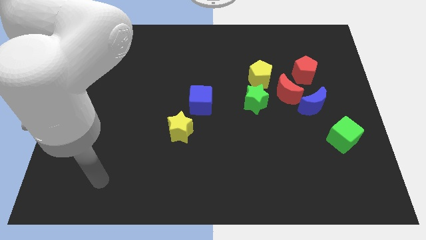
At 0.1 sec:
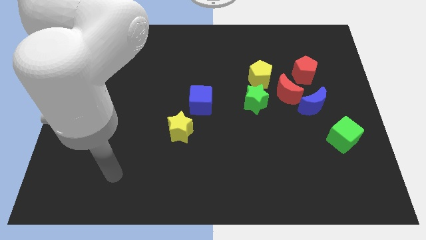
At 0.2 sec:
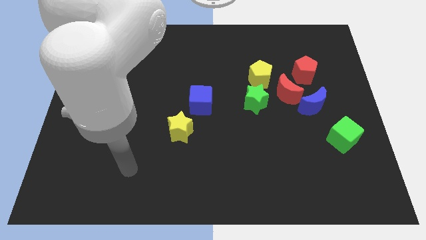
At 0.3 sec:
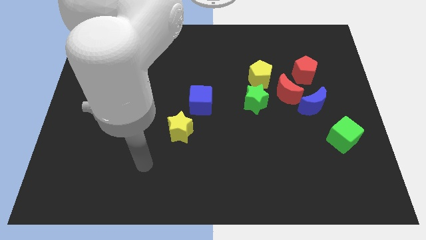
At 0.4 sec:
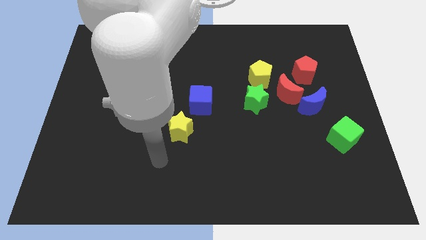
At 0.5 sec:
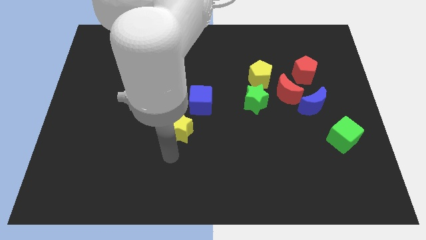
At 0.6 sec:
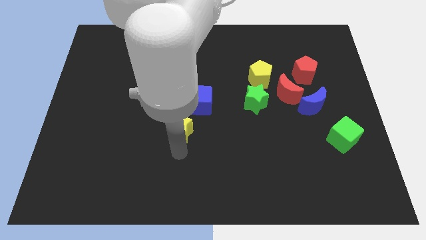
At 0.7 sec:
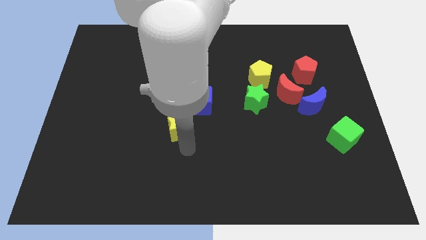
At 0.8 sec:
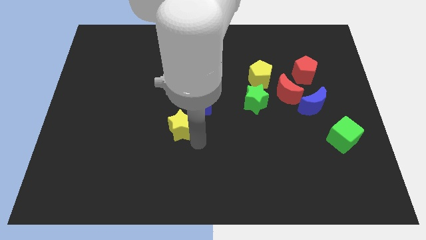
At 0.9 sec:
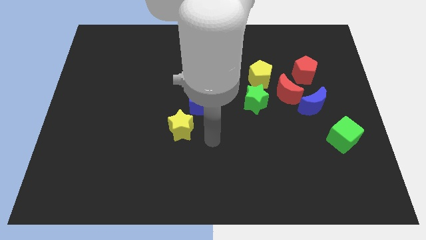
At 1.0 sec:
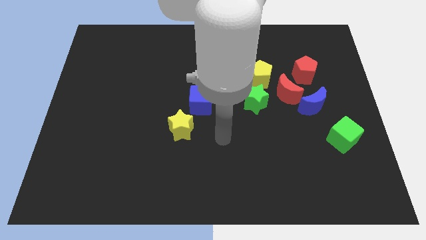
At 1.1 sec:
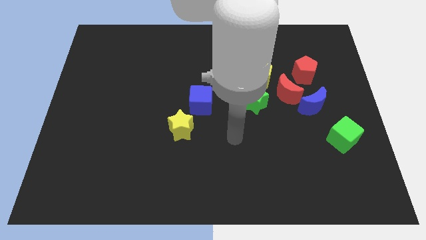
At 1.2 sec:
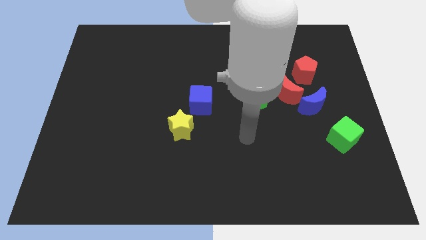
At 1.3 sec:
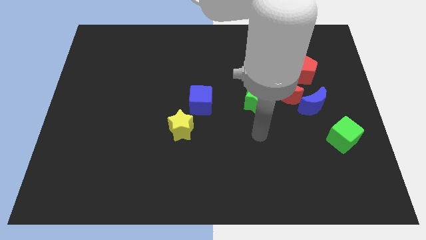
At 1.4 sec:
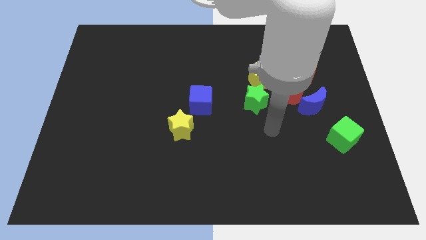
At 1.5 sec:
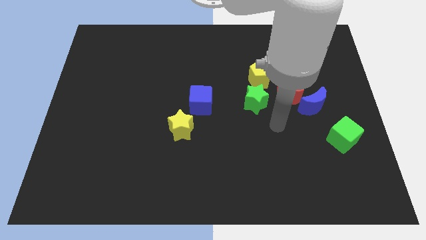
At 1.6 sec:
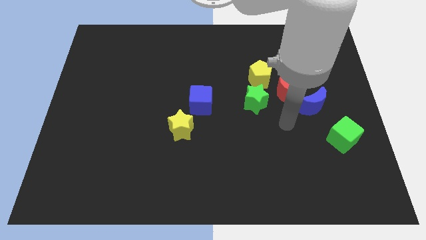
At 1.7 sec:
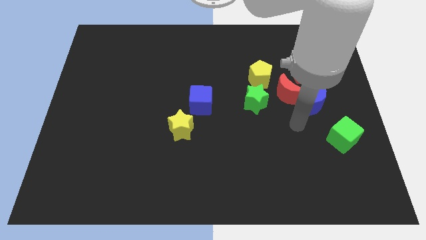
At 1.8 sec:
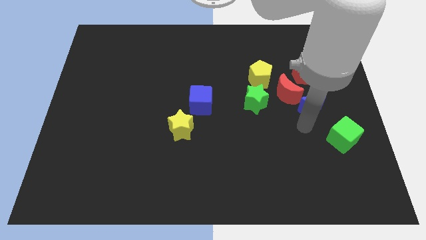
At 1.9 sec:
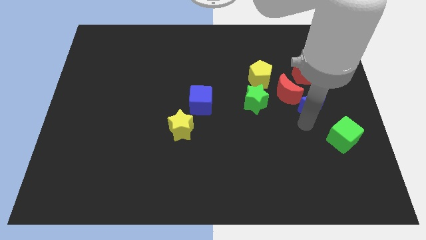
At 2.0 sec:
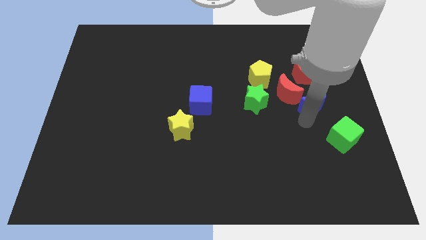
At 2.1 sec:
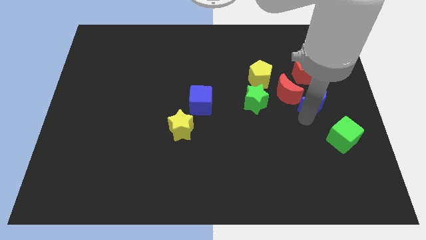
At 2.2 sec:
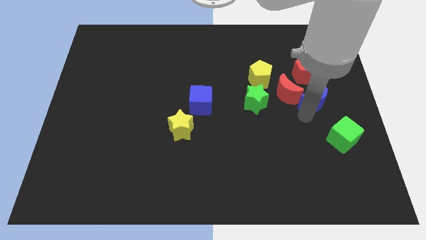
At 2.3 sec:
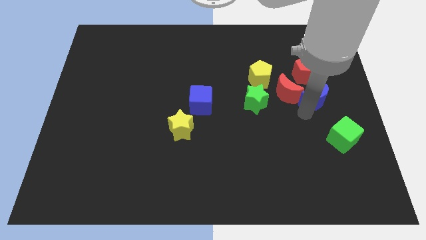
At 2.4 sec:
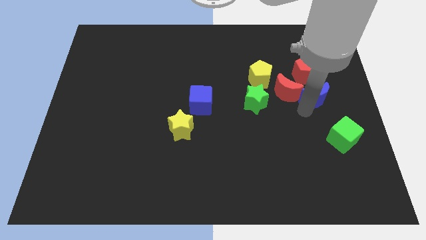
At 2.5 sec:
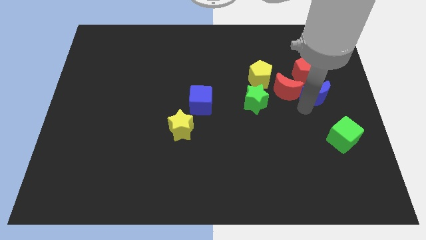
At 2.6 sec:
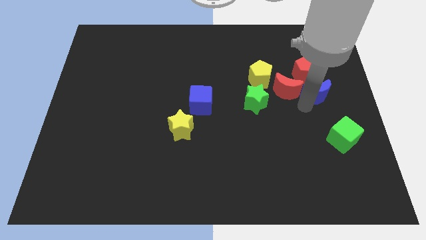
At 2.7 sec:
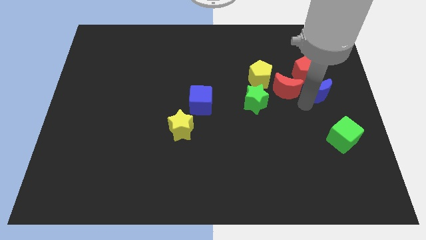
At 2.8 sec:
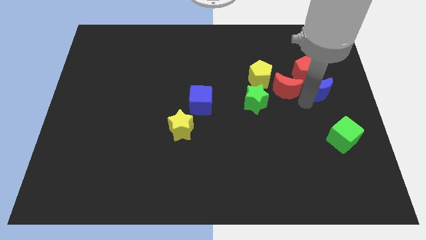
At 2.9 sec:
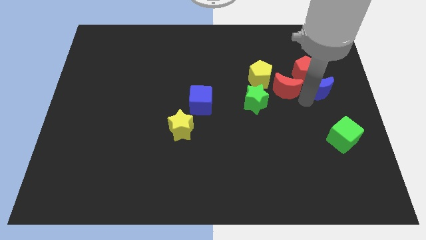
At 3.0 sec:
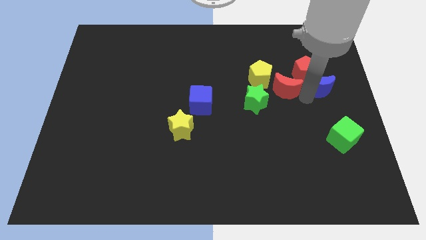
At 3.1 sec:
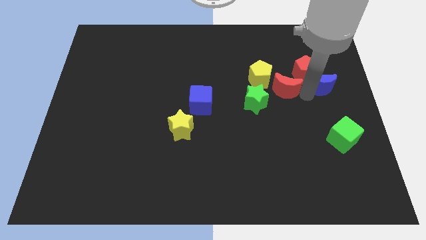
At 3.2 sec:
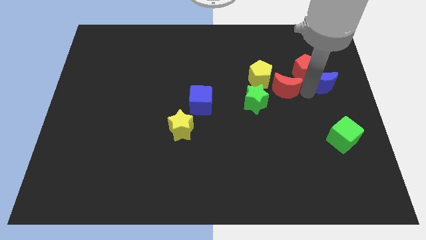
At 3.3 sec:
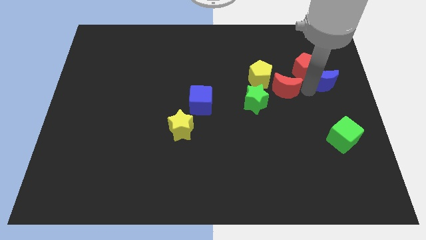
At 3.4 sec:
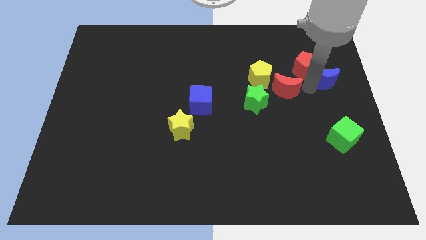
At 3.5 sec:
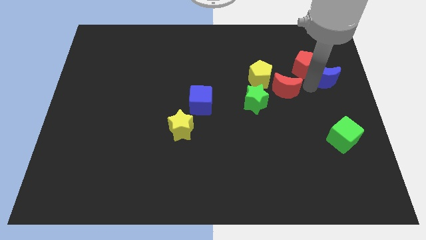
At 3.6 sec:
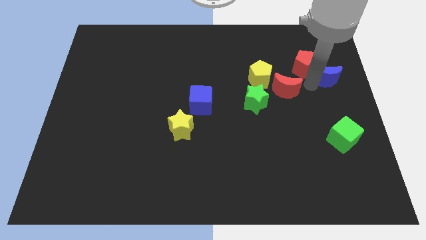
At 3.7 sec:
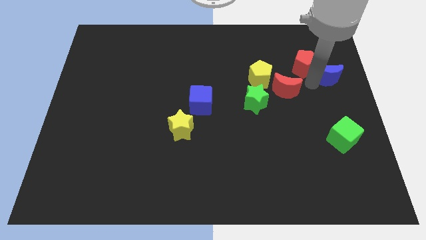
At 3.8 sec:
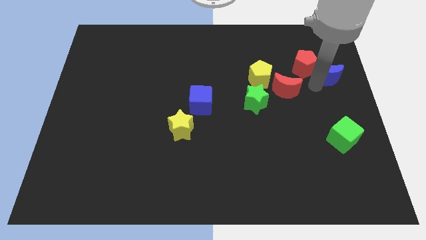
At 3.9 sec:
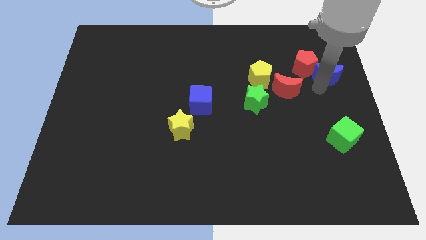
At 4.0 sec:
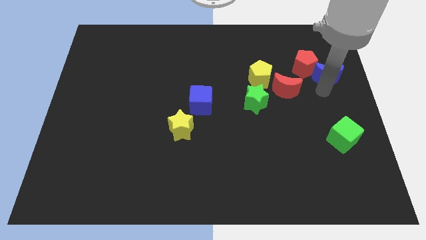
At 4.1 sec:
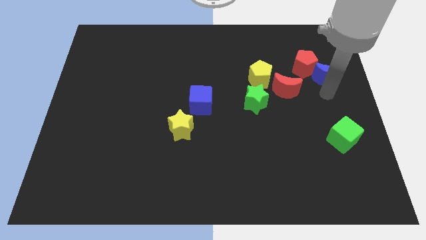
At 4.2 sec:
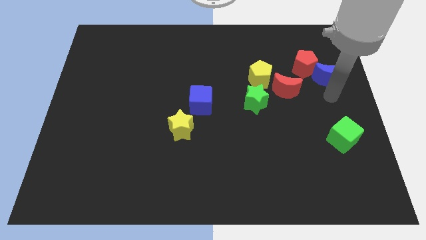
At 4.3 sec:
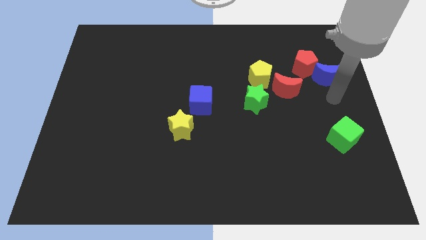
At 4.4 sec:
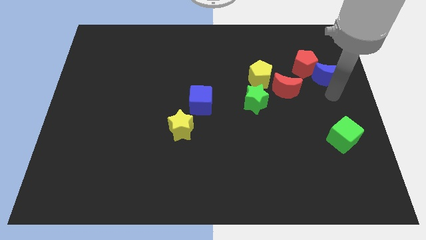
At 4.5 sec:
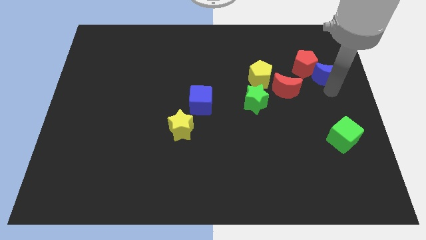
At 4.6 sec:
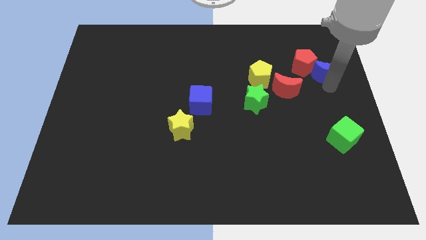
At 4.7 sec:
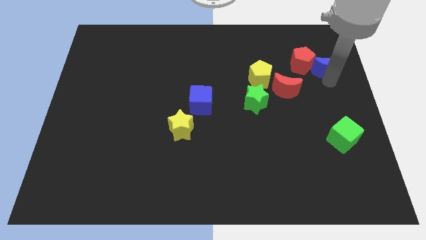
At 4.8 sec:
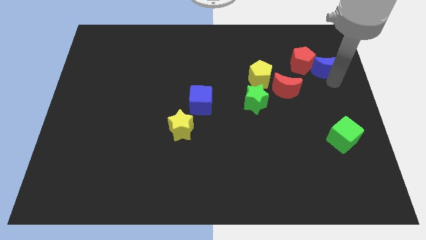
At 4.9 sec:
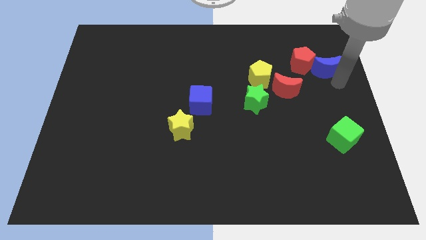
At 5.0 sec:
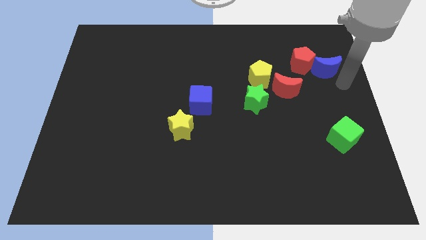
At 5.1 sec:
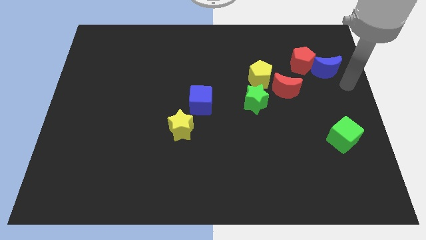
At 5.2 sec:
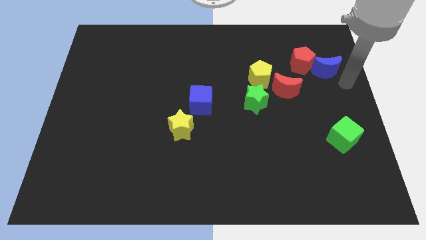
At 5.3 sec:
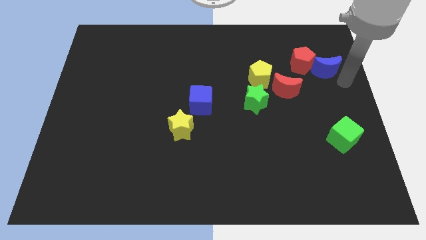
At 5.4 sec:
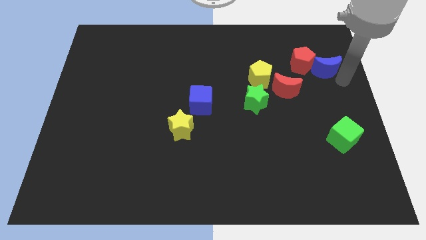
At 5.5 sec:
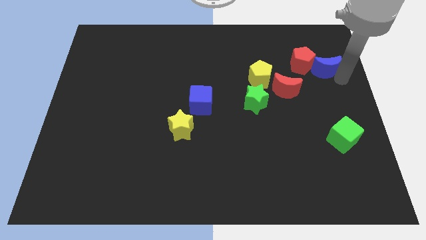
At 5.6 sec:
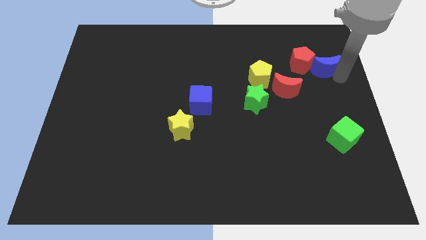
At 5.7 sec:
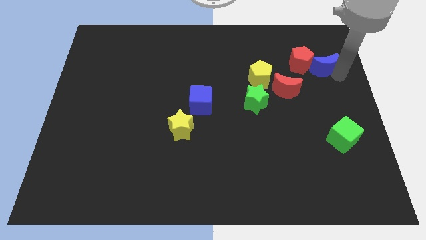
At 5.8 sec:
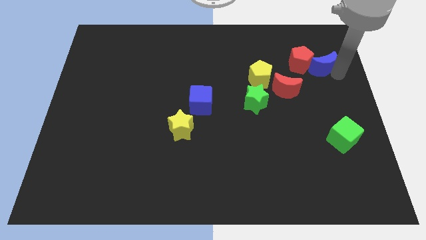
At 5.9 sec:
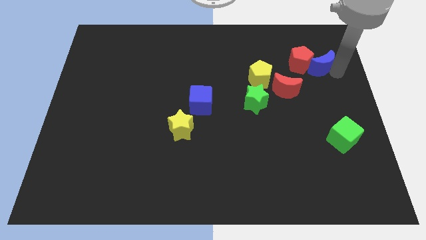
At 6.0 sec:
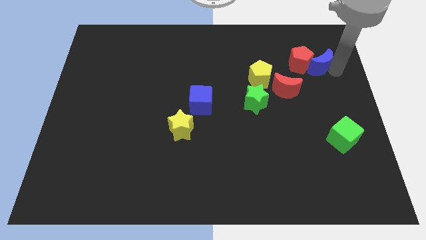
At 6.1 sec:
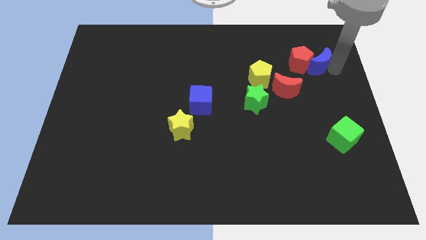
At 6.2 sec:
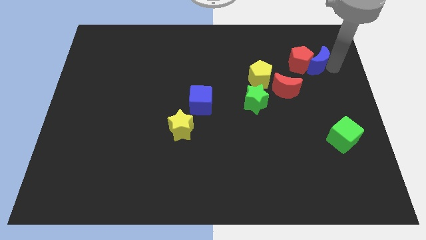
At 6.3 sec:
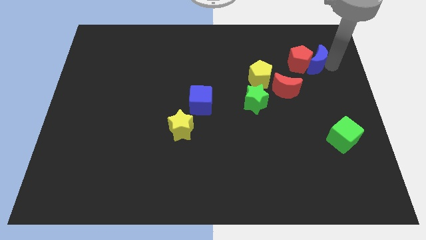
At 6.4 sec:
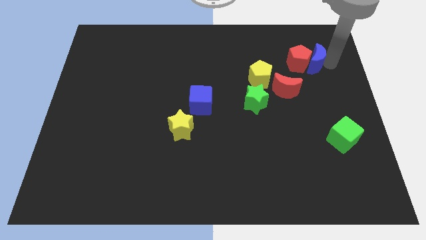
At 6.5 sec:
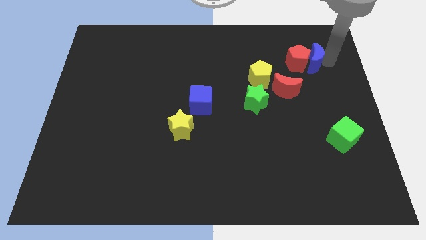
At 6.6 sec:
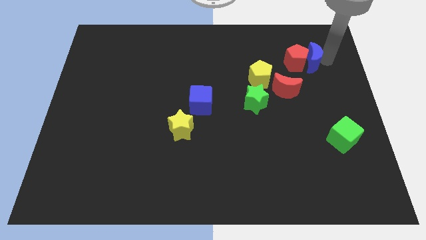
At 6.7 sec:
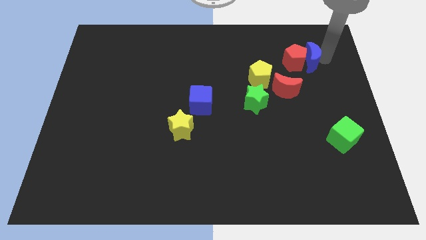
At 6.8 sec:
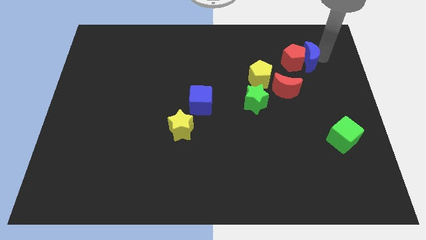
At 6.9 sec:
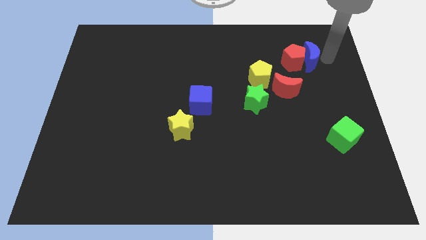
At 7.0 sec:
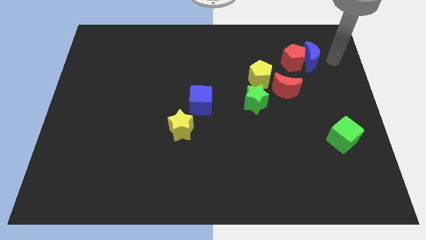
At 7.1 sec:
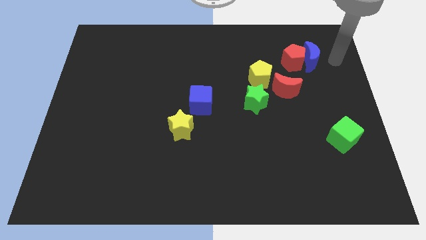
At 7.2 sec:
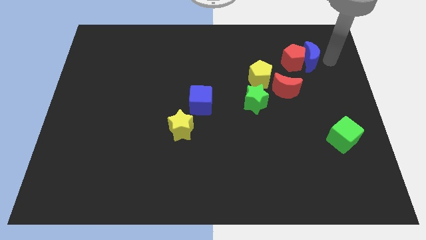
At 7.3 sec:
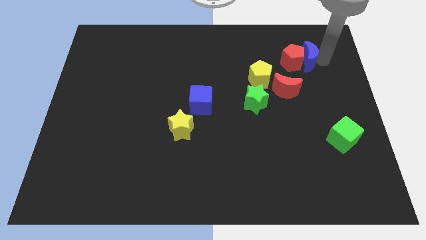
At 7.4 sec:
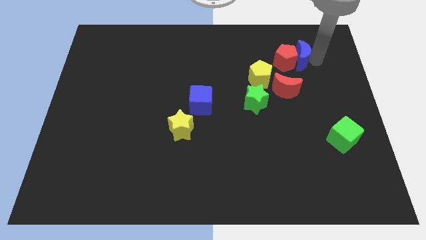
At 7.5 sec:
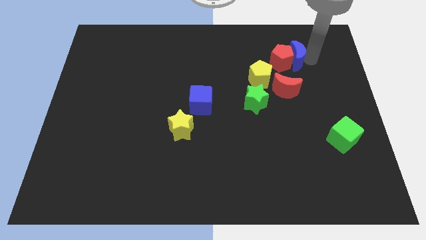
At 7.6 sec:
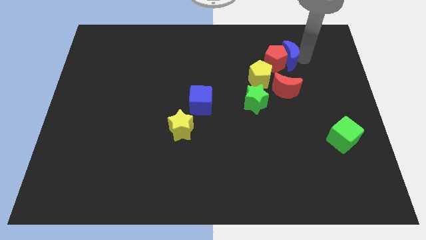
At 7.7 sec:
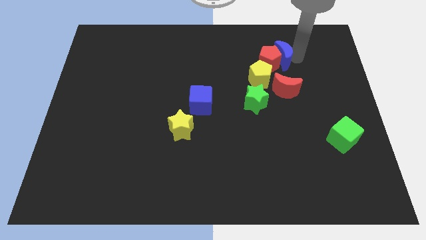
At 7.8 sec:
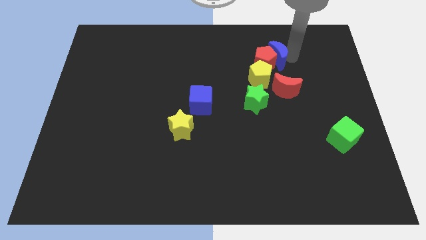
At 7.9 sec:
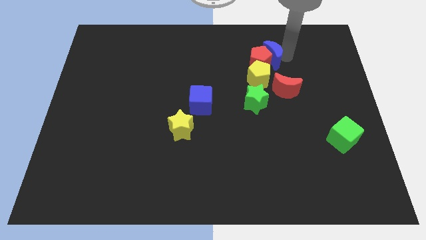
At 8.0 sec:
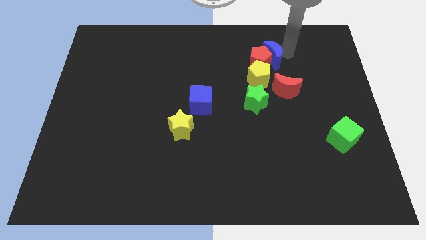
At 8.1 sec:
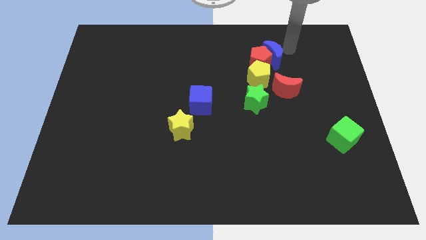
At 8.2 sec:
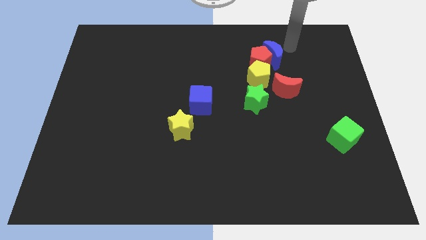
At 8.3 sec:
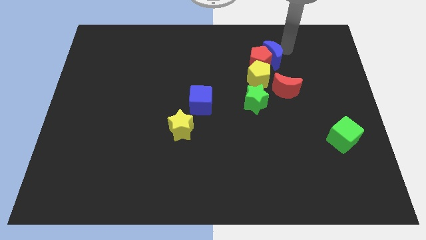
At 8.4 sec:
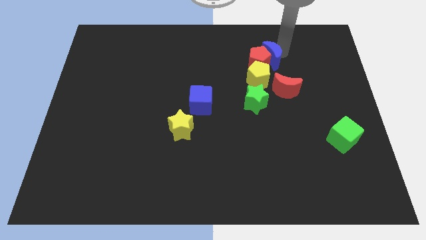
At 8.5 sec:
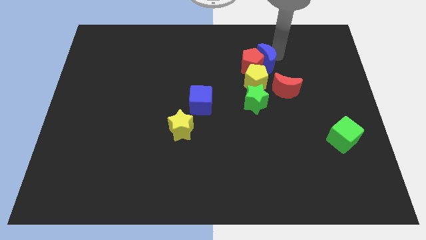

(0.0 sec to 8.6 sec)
move the blue moon above the green star
